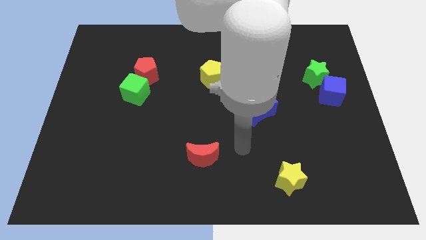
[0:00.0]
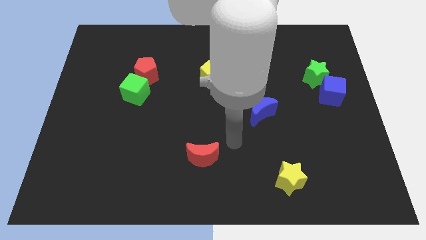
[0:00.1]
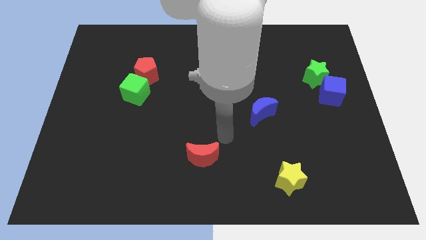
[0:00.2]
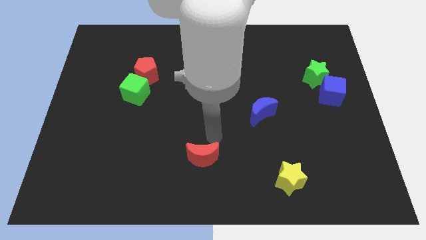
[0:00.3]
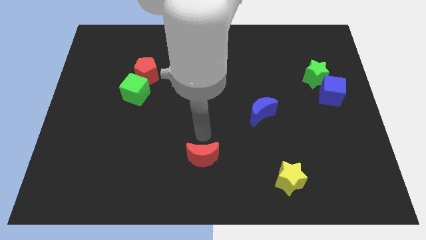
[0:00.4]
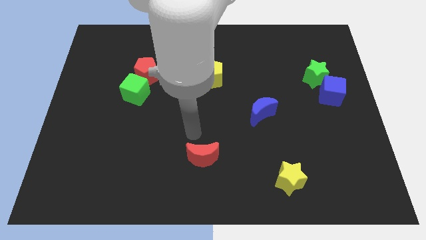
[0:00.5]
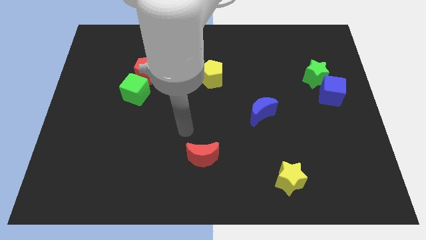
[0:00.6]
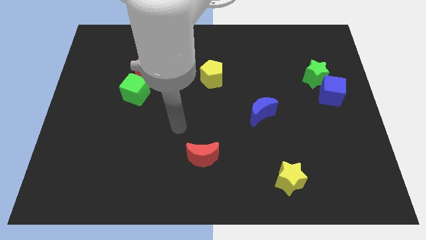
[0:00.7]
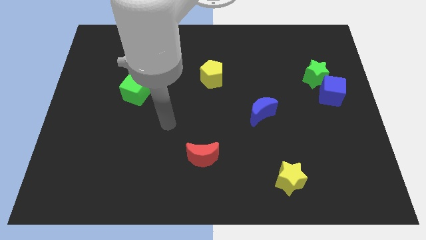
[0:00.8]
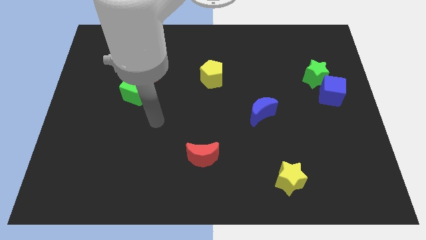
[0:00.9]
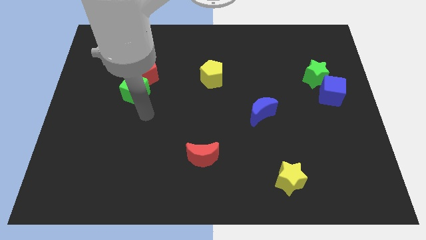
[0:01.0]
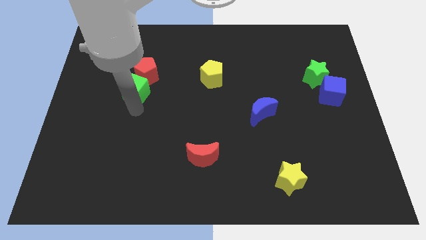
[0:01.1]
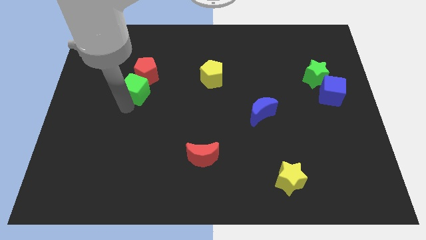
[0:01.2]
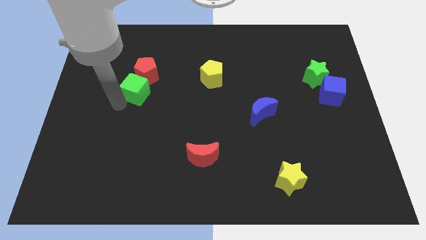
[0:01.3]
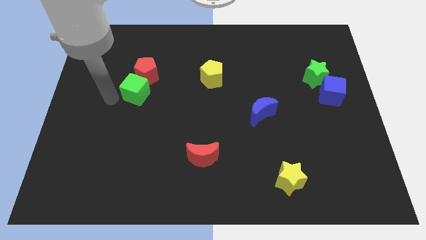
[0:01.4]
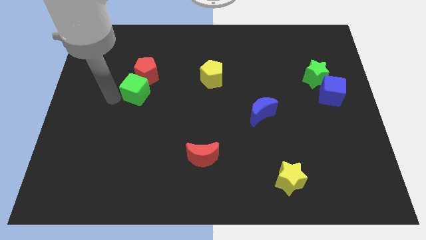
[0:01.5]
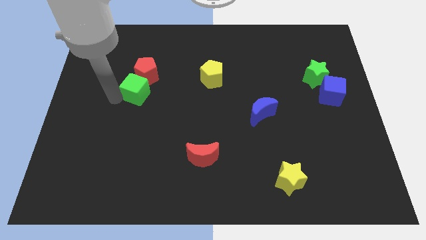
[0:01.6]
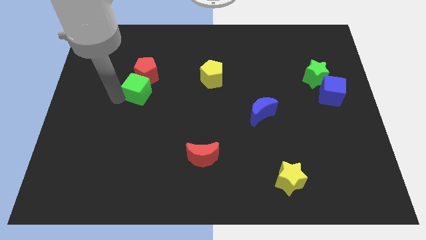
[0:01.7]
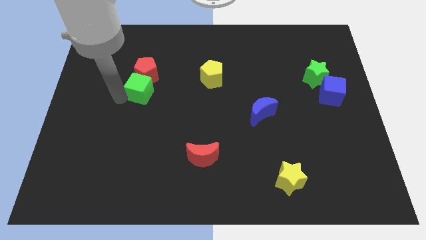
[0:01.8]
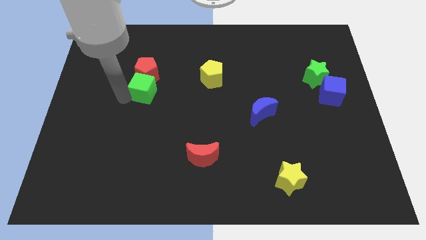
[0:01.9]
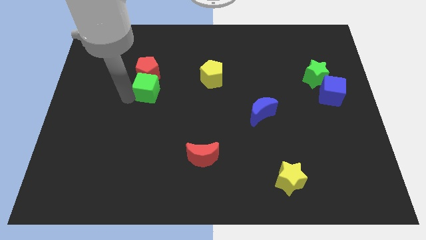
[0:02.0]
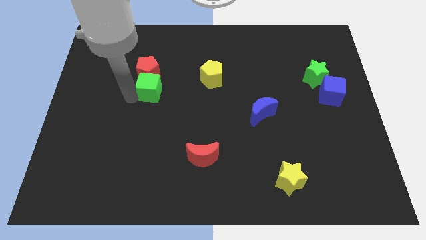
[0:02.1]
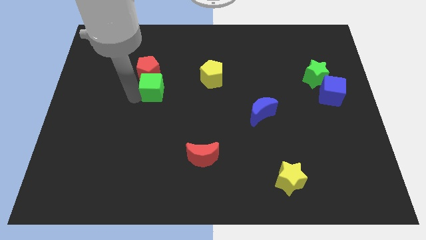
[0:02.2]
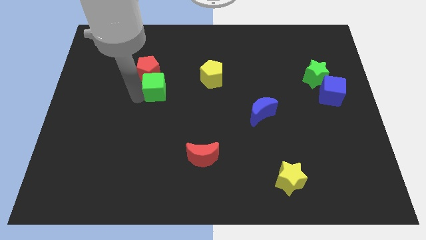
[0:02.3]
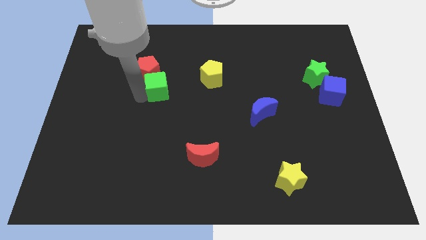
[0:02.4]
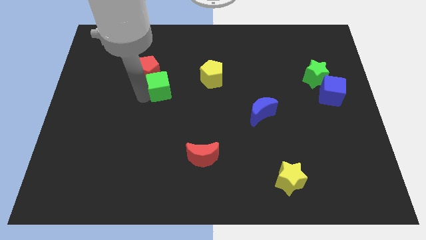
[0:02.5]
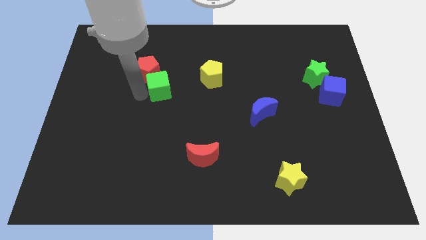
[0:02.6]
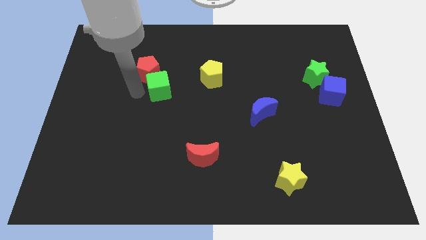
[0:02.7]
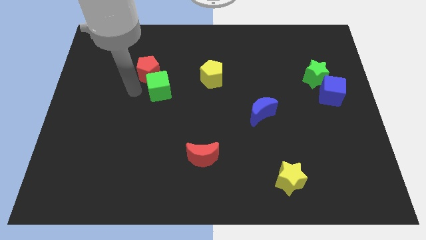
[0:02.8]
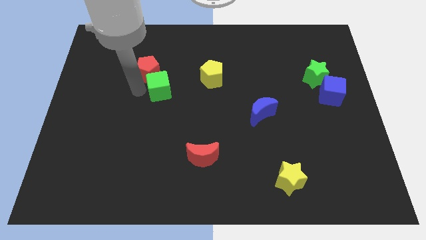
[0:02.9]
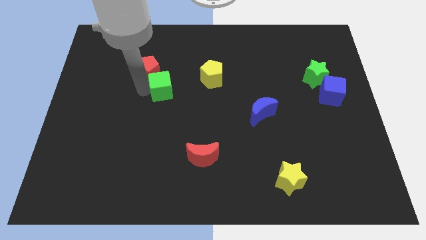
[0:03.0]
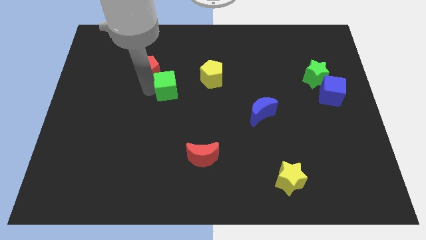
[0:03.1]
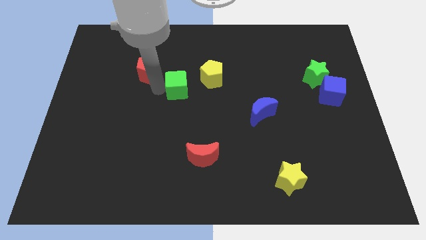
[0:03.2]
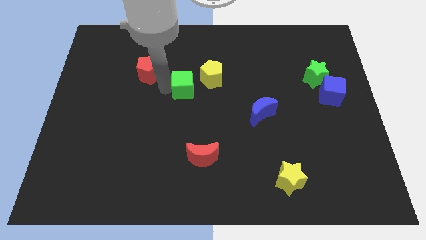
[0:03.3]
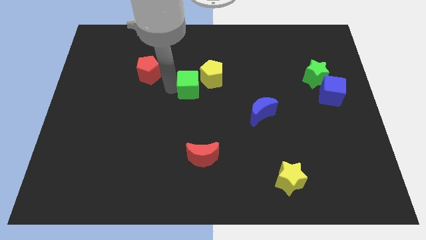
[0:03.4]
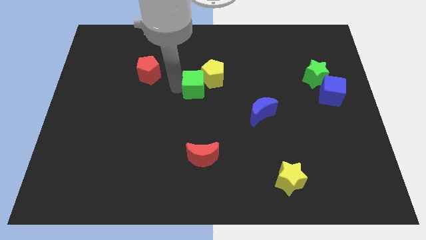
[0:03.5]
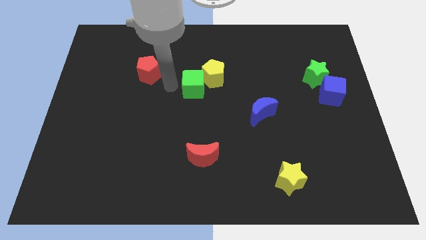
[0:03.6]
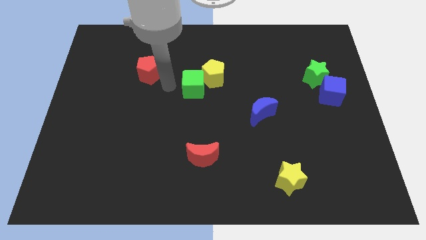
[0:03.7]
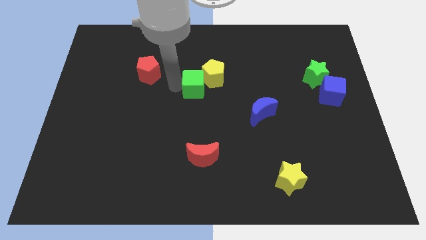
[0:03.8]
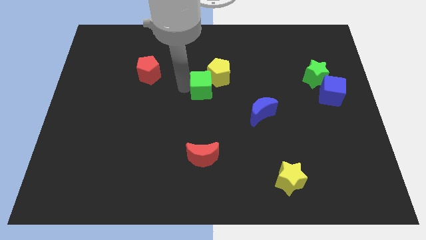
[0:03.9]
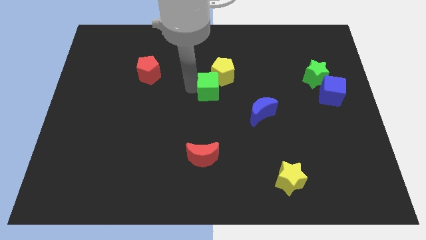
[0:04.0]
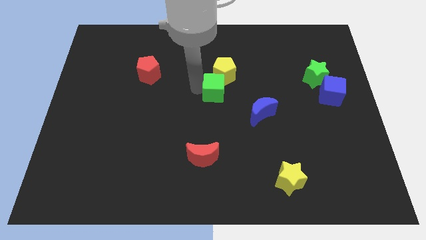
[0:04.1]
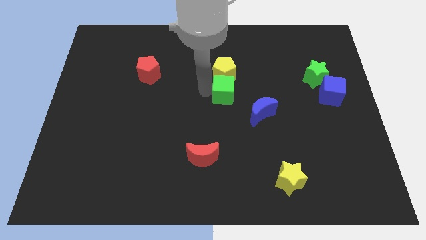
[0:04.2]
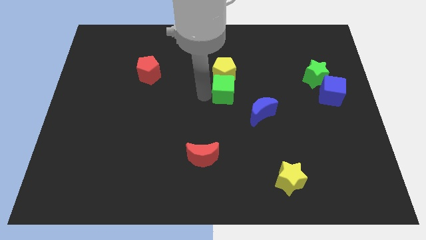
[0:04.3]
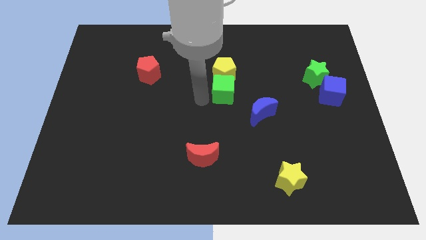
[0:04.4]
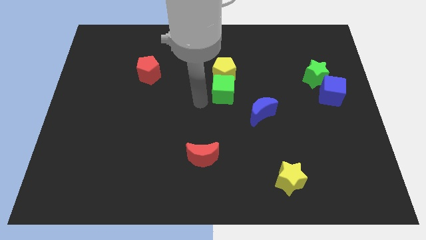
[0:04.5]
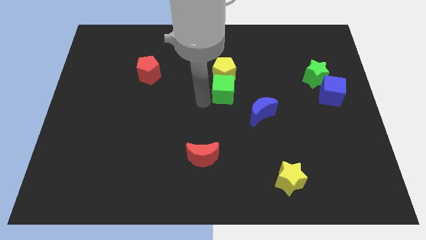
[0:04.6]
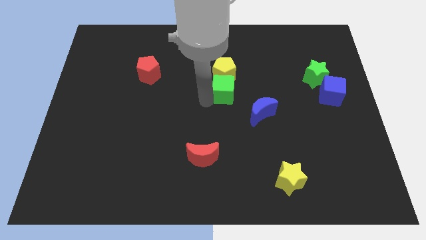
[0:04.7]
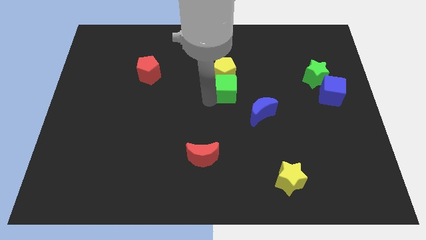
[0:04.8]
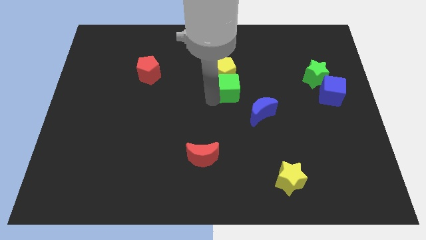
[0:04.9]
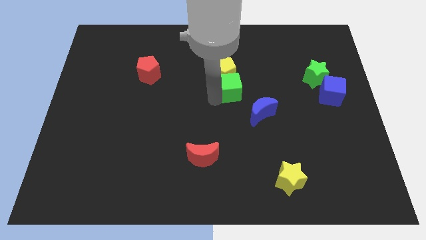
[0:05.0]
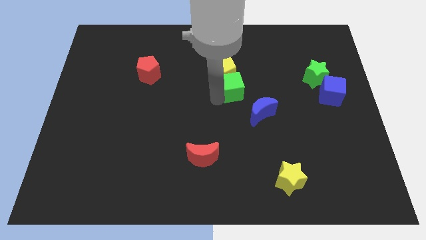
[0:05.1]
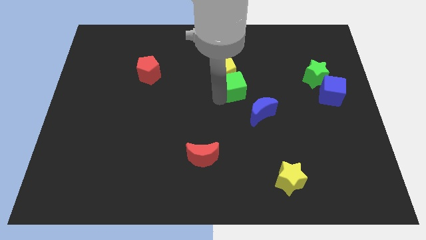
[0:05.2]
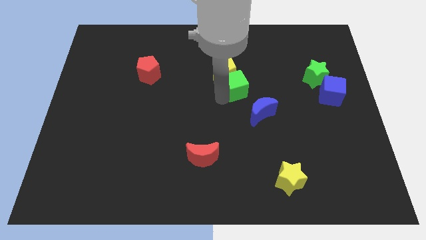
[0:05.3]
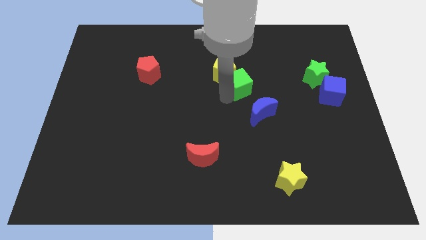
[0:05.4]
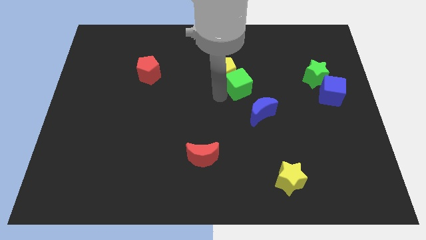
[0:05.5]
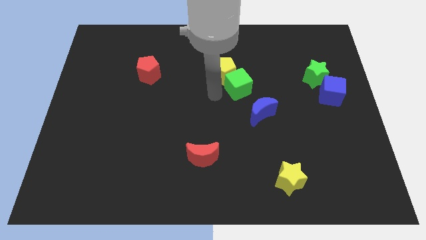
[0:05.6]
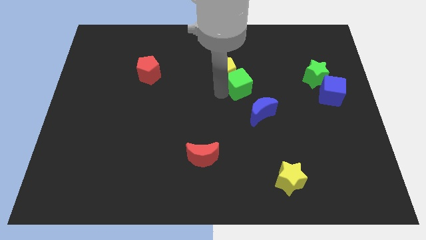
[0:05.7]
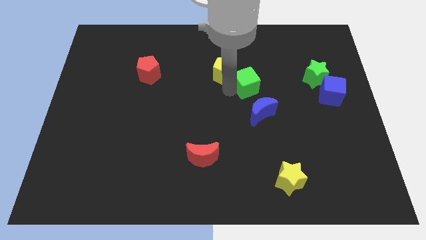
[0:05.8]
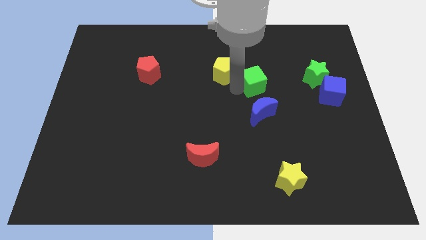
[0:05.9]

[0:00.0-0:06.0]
slide the green cube to the left of the green star
